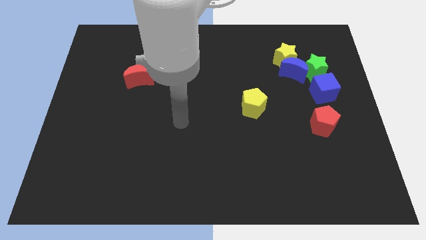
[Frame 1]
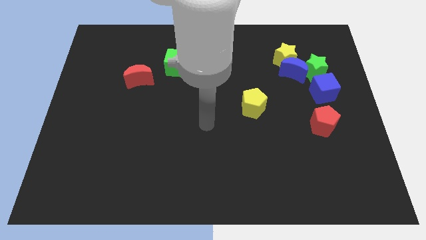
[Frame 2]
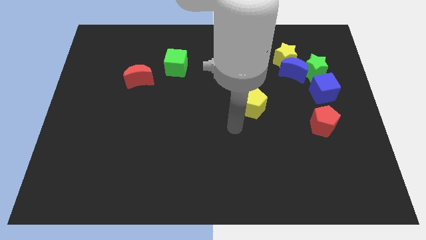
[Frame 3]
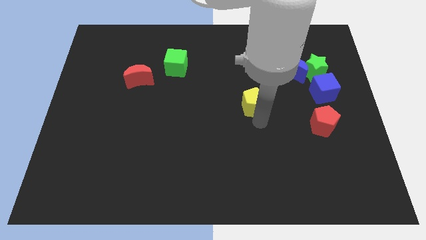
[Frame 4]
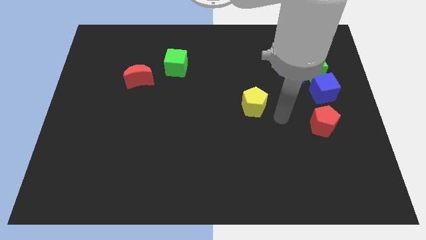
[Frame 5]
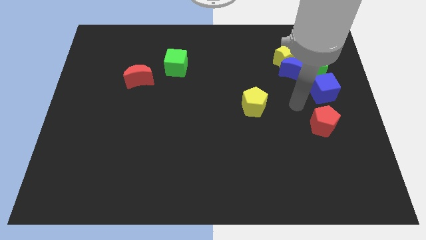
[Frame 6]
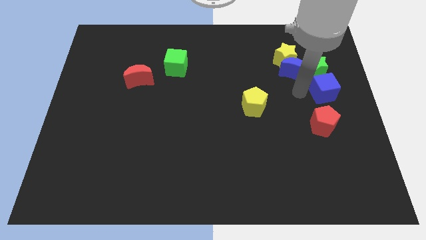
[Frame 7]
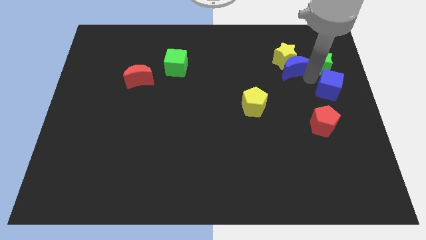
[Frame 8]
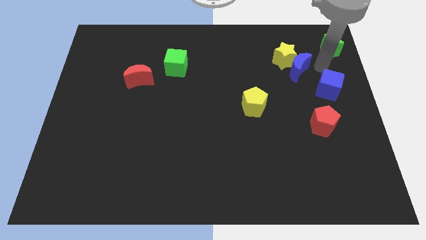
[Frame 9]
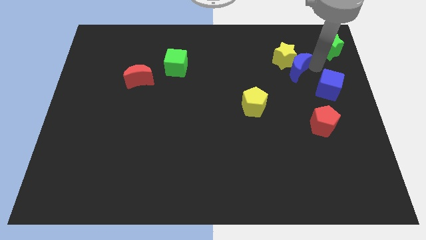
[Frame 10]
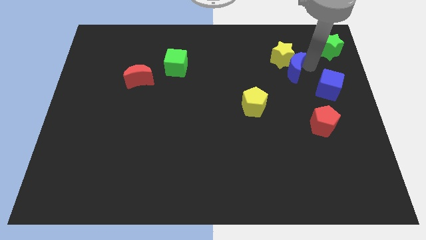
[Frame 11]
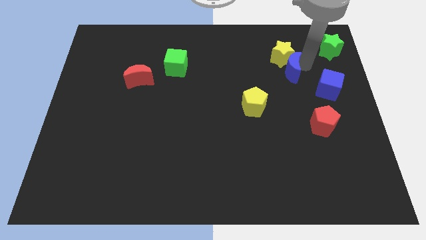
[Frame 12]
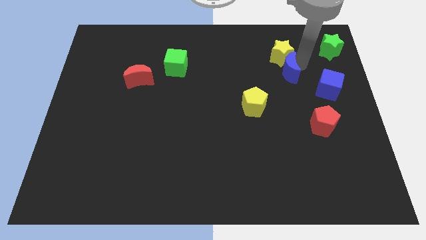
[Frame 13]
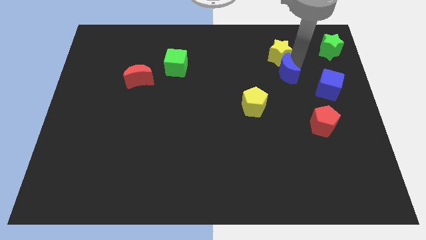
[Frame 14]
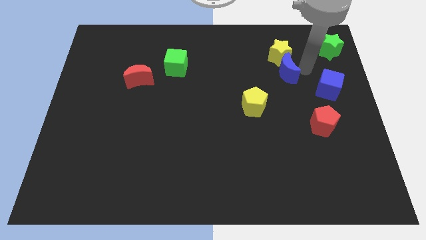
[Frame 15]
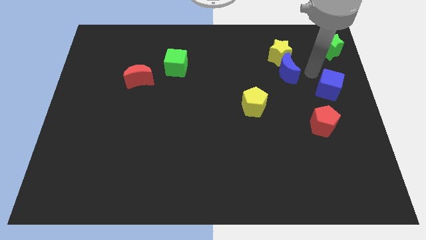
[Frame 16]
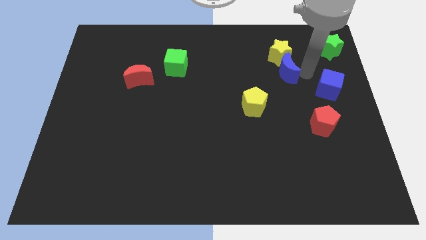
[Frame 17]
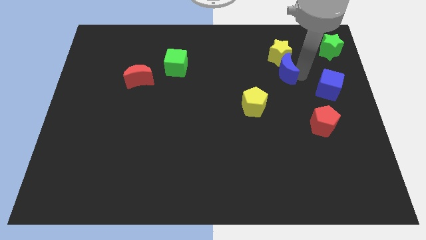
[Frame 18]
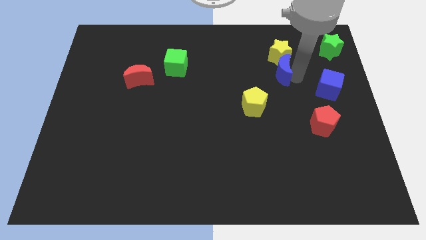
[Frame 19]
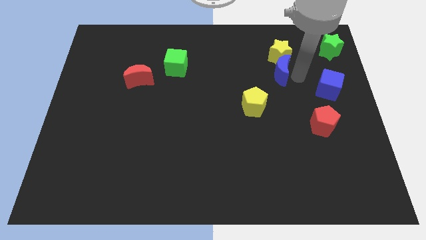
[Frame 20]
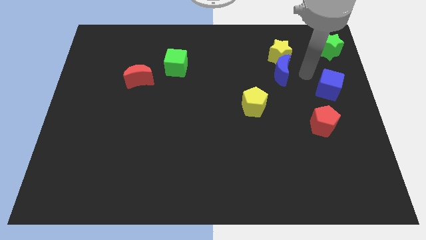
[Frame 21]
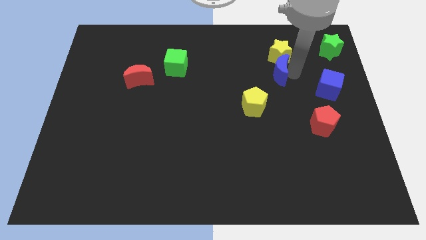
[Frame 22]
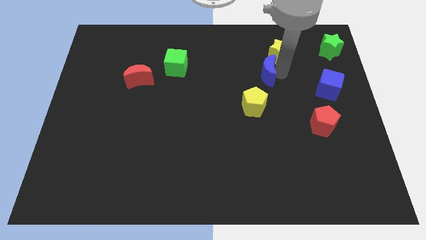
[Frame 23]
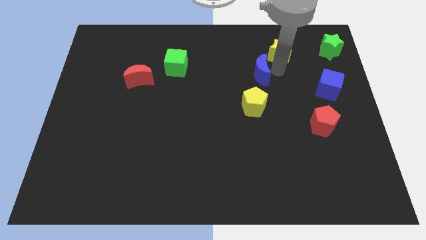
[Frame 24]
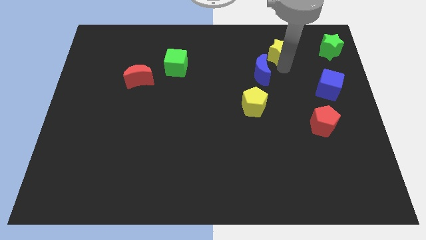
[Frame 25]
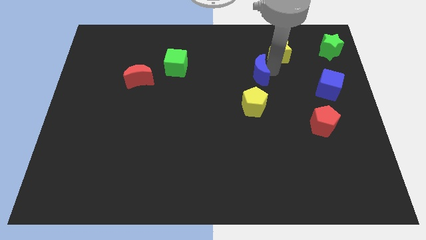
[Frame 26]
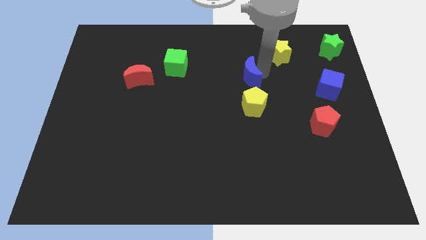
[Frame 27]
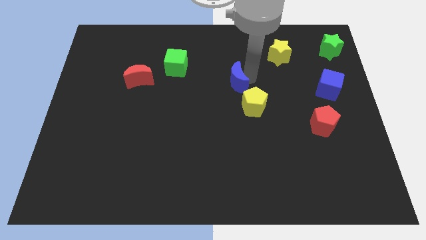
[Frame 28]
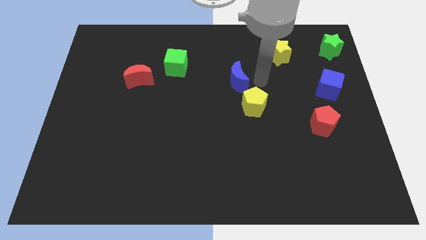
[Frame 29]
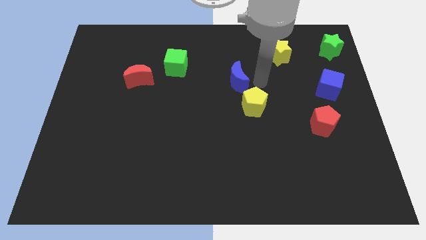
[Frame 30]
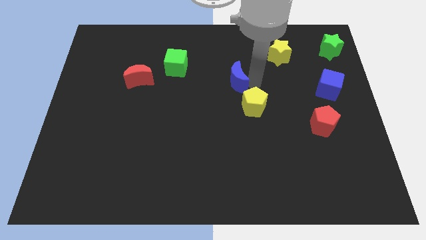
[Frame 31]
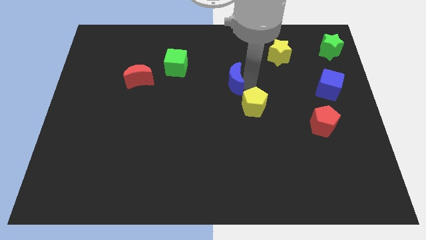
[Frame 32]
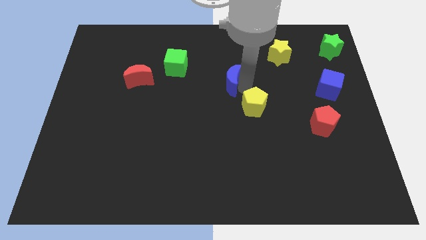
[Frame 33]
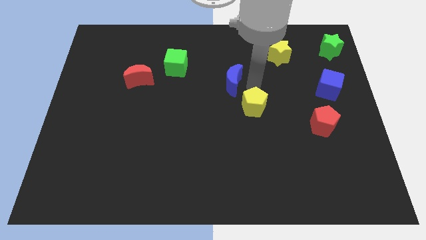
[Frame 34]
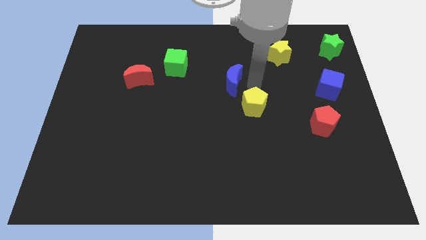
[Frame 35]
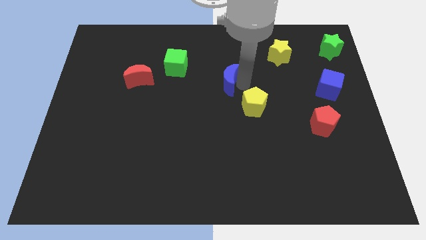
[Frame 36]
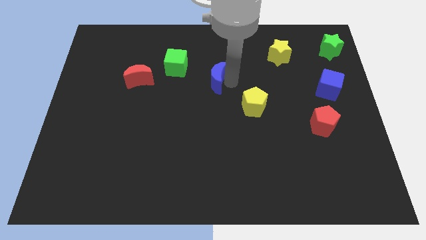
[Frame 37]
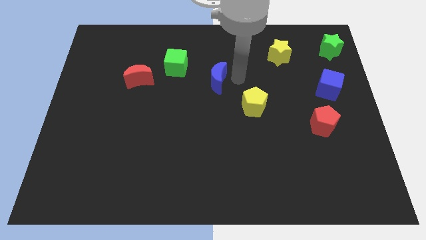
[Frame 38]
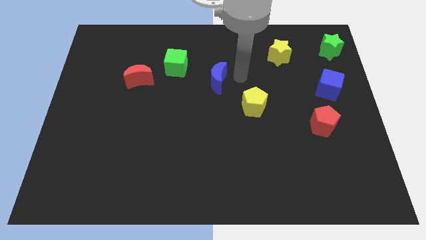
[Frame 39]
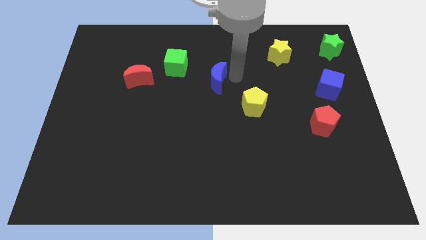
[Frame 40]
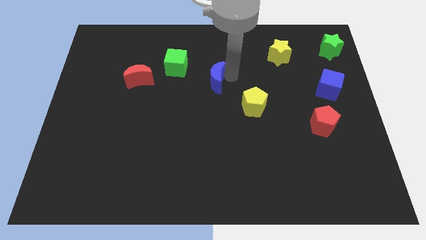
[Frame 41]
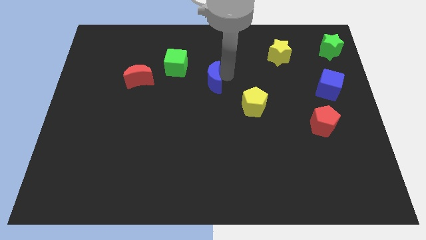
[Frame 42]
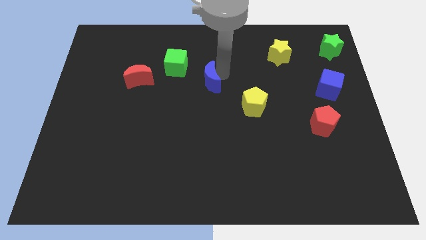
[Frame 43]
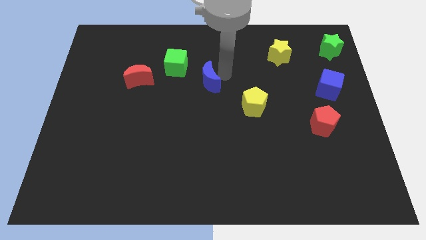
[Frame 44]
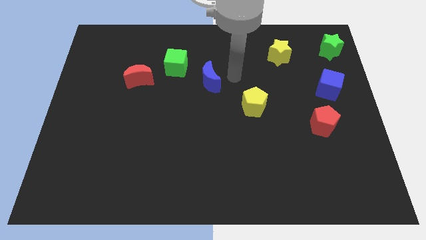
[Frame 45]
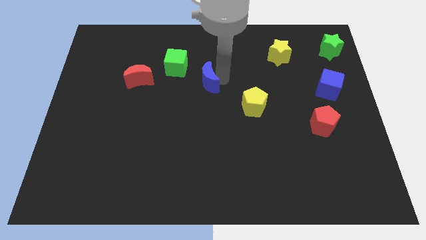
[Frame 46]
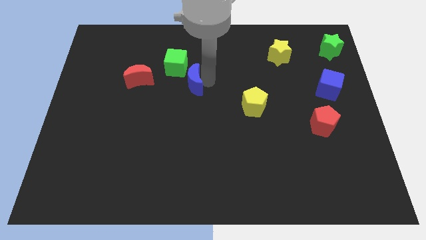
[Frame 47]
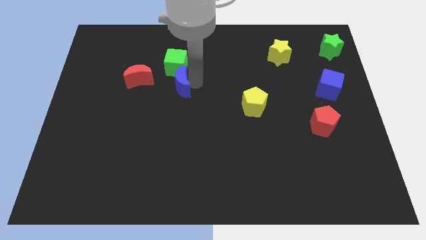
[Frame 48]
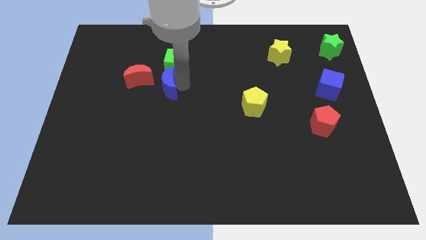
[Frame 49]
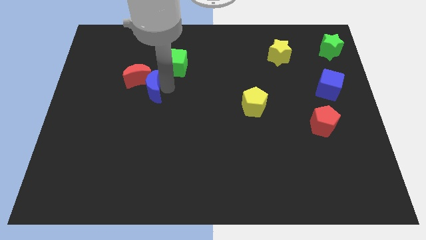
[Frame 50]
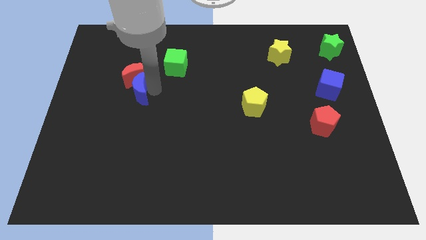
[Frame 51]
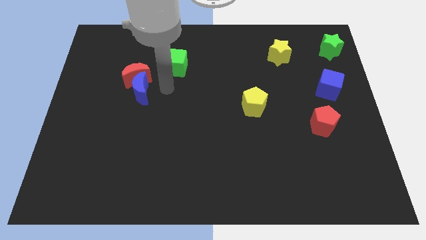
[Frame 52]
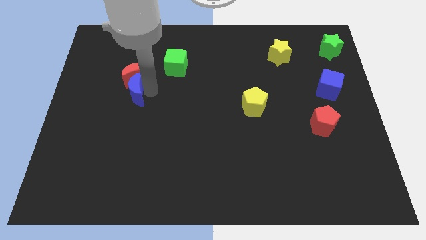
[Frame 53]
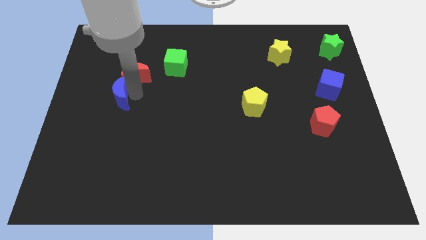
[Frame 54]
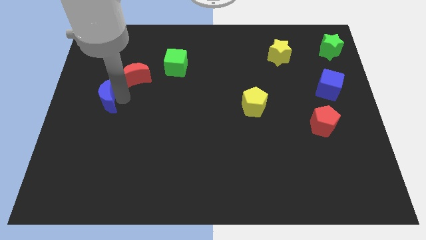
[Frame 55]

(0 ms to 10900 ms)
slide the blue moon to the left side of the board
